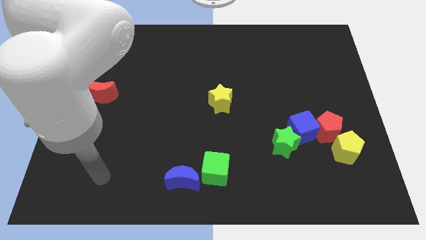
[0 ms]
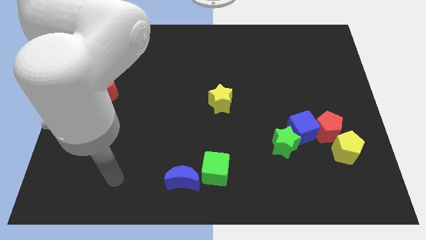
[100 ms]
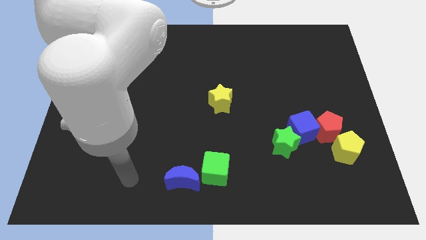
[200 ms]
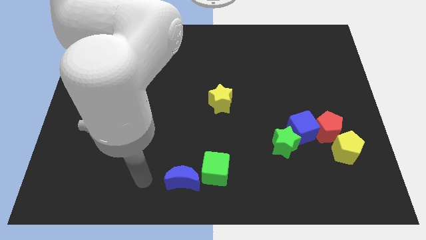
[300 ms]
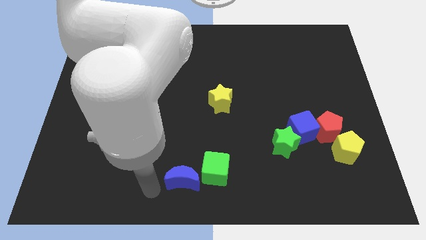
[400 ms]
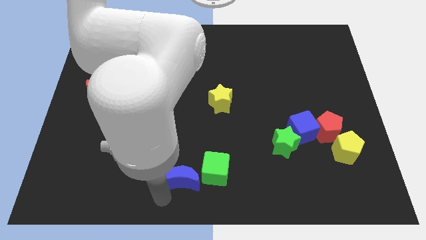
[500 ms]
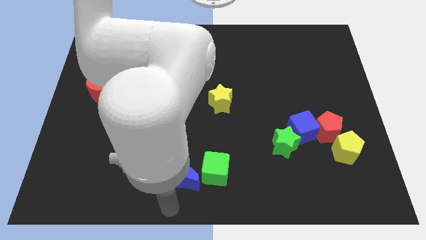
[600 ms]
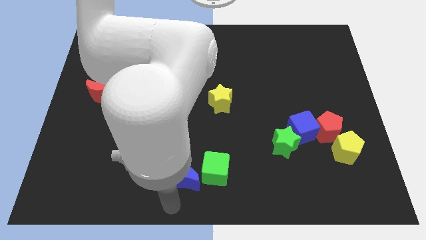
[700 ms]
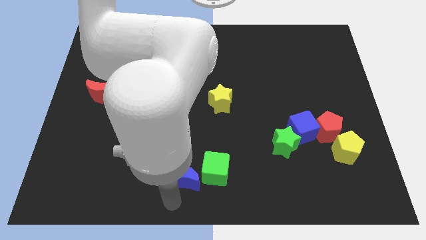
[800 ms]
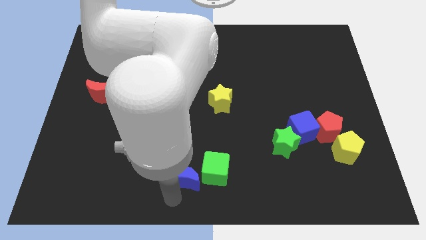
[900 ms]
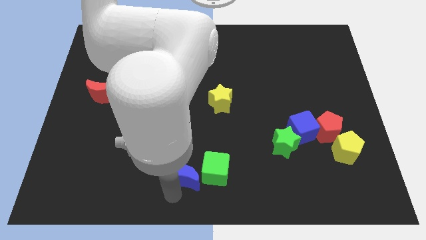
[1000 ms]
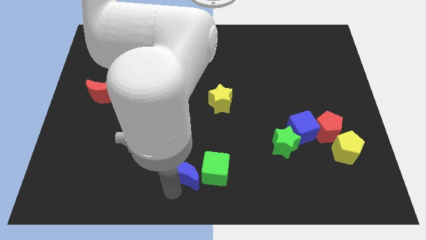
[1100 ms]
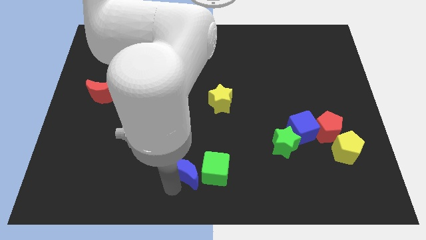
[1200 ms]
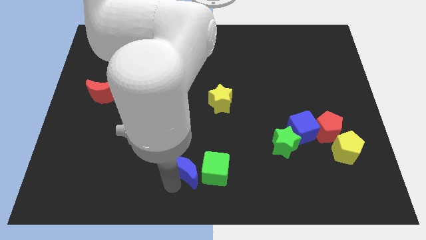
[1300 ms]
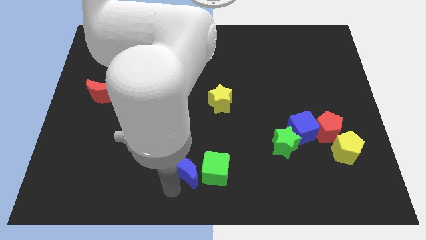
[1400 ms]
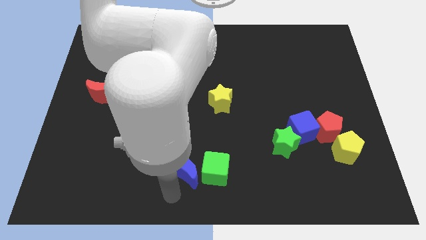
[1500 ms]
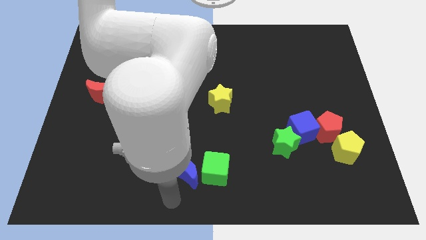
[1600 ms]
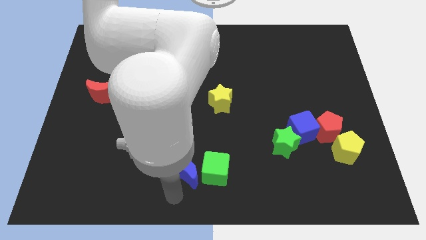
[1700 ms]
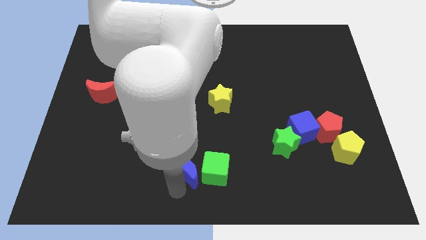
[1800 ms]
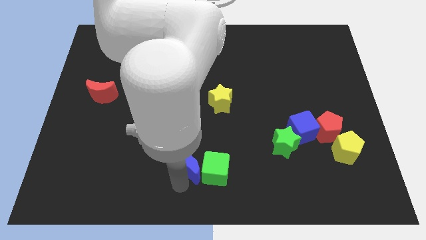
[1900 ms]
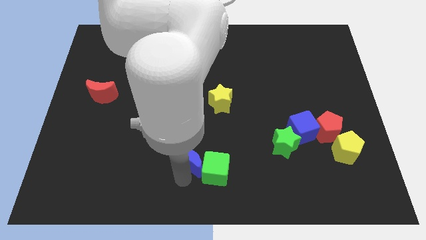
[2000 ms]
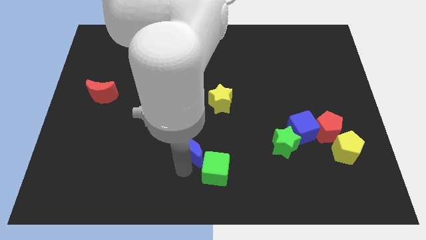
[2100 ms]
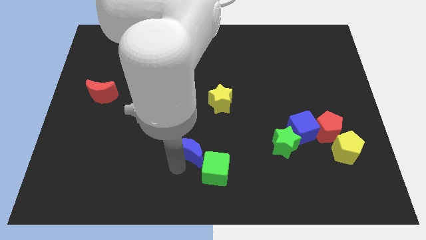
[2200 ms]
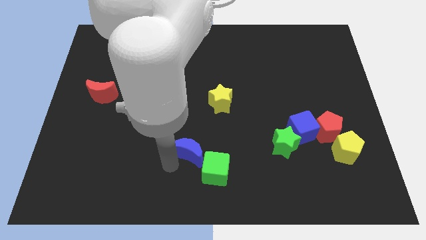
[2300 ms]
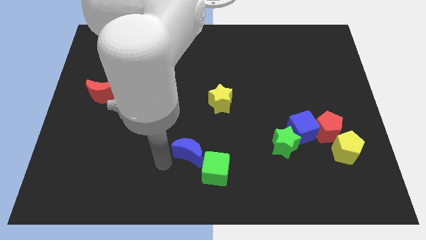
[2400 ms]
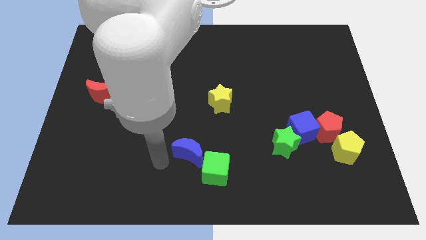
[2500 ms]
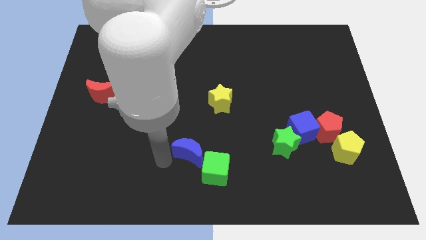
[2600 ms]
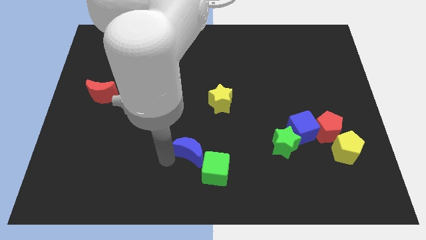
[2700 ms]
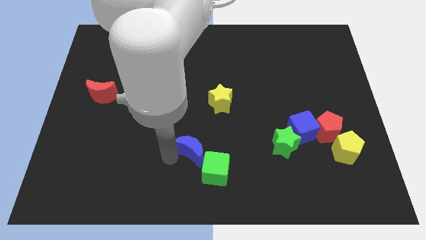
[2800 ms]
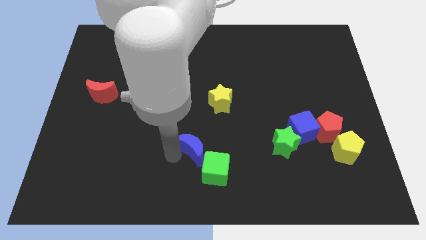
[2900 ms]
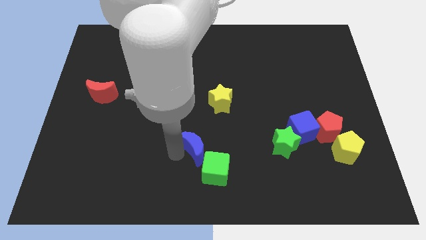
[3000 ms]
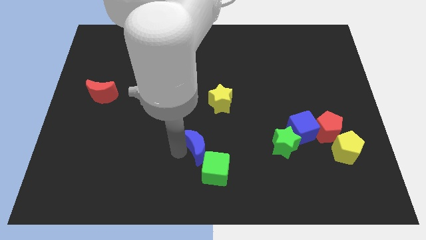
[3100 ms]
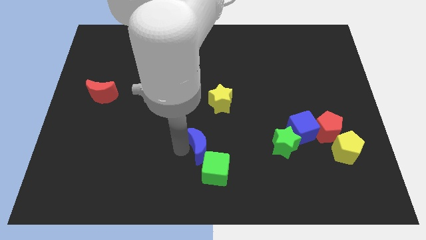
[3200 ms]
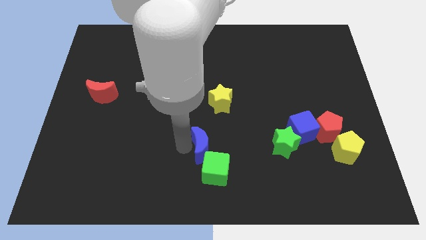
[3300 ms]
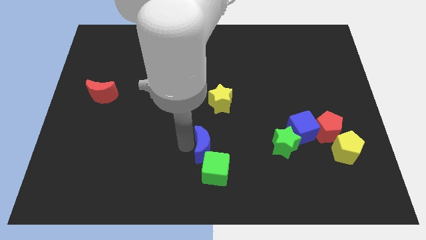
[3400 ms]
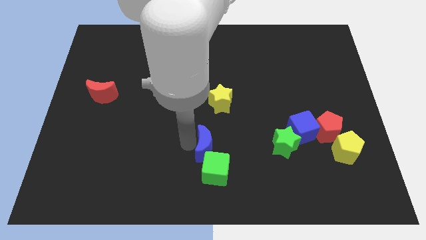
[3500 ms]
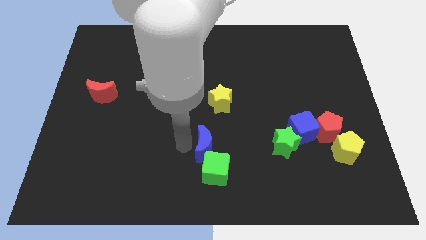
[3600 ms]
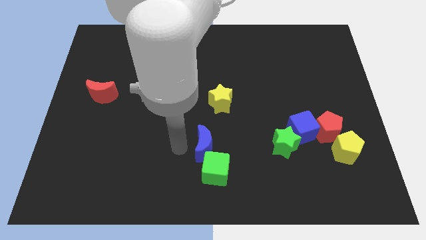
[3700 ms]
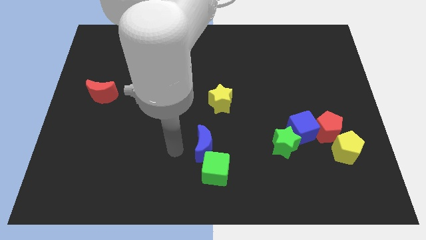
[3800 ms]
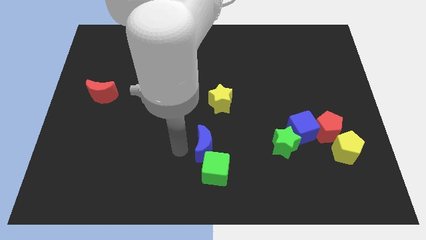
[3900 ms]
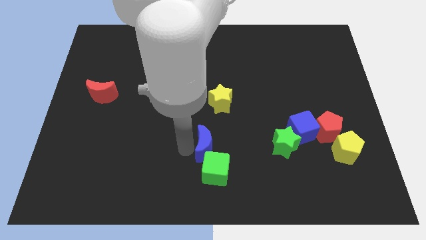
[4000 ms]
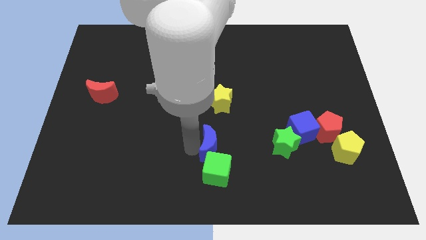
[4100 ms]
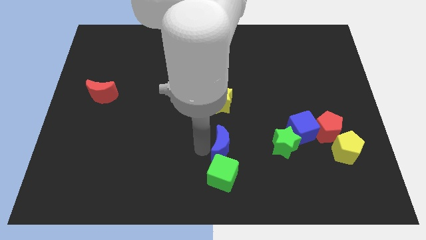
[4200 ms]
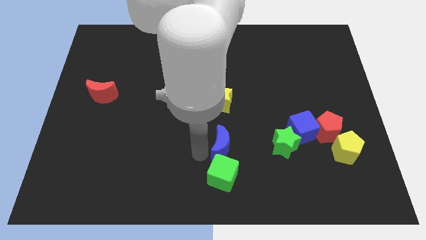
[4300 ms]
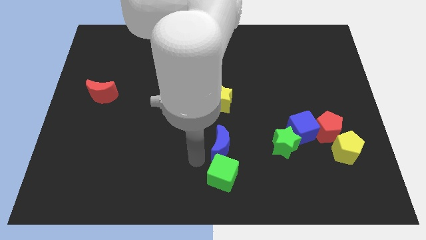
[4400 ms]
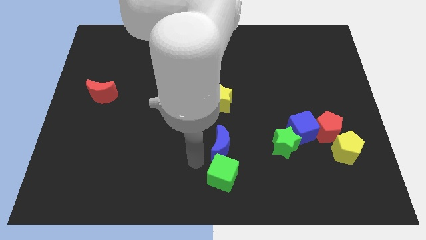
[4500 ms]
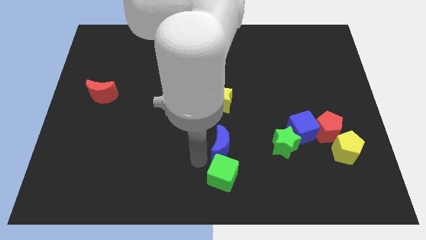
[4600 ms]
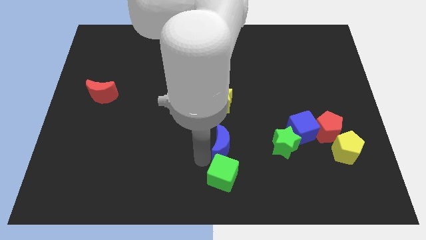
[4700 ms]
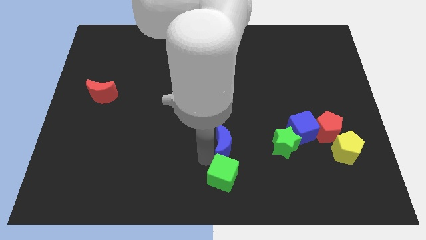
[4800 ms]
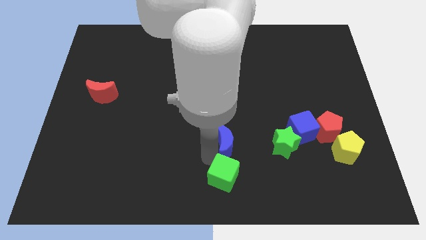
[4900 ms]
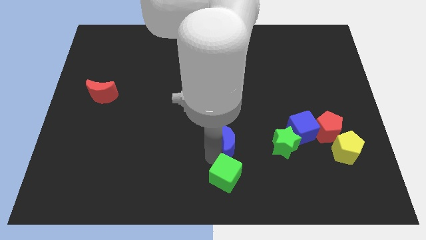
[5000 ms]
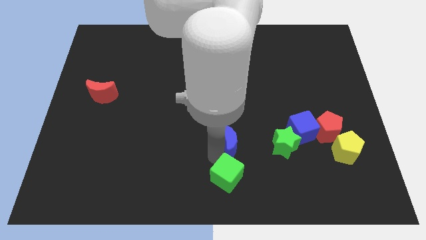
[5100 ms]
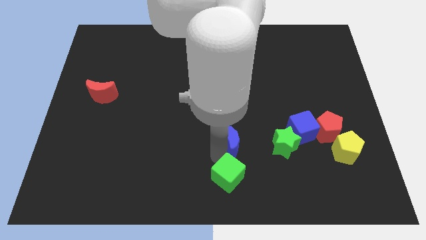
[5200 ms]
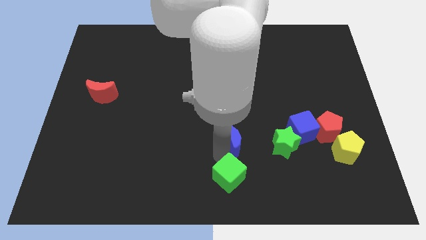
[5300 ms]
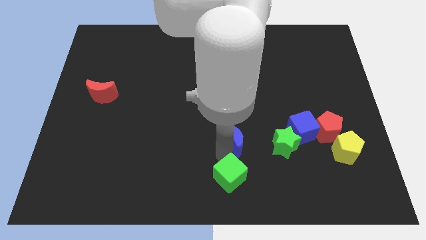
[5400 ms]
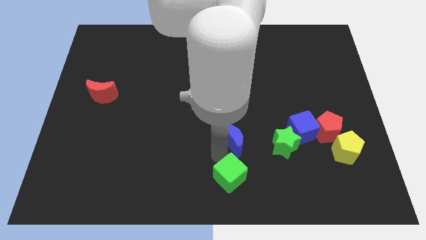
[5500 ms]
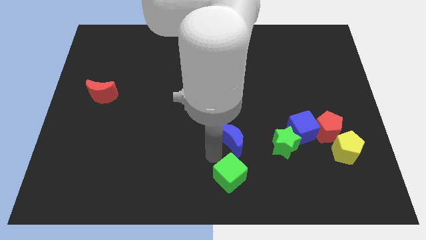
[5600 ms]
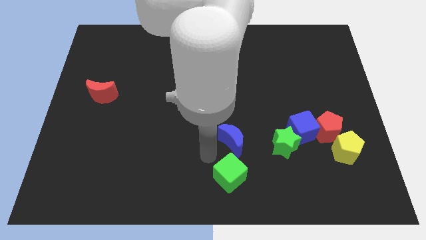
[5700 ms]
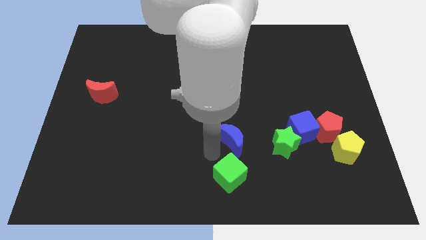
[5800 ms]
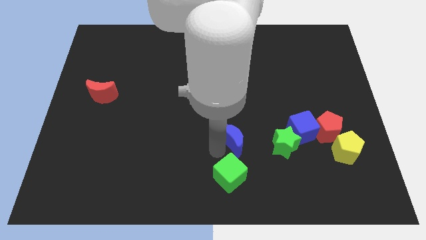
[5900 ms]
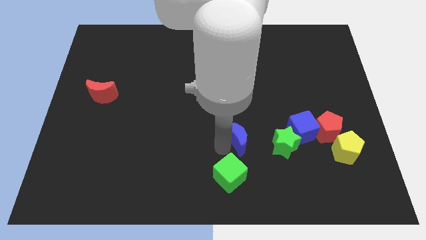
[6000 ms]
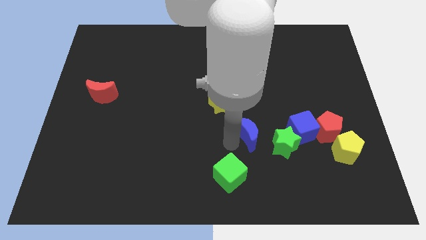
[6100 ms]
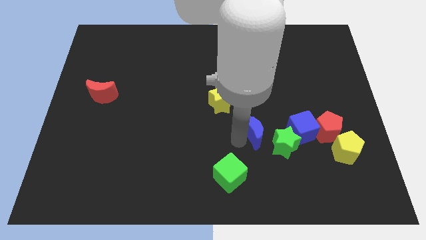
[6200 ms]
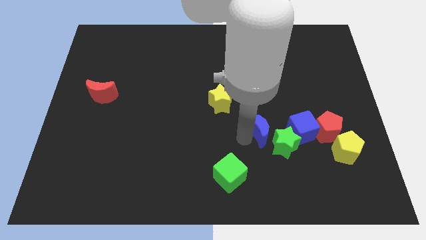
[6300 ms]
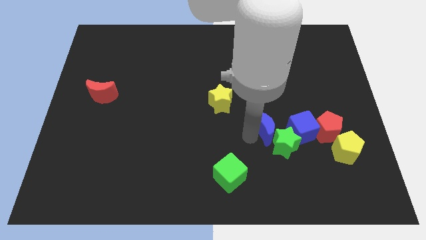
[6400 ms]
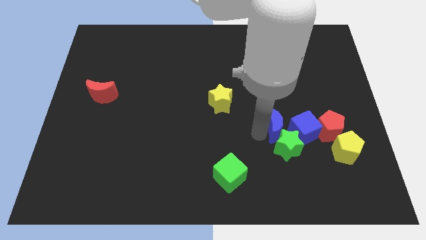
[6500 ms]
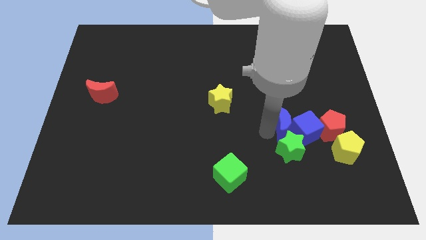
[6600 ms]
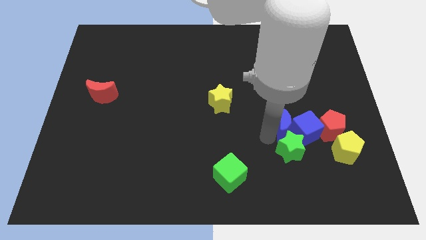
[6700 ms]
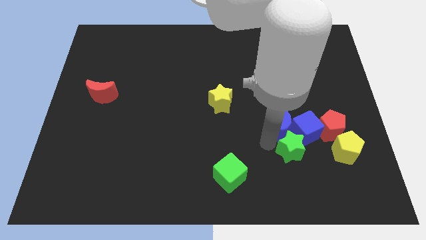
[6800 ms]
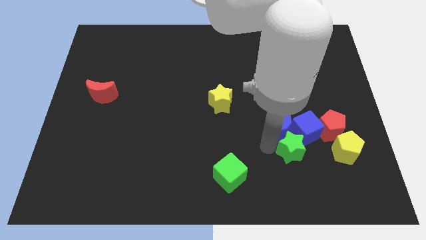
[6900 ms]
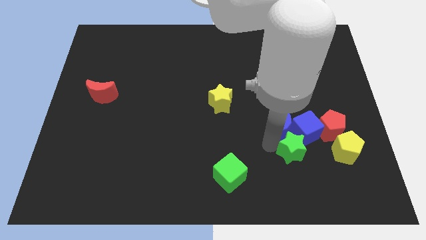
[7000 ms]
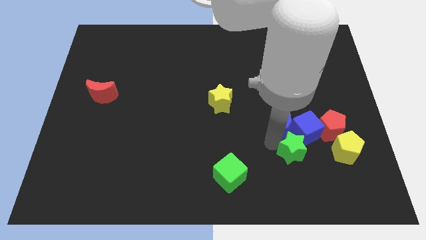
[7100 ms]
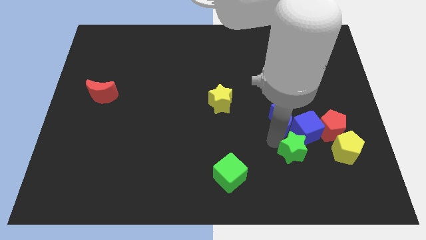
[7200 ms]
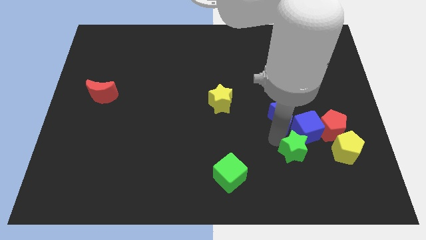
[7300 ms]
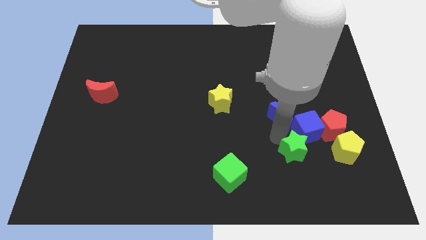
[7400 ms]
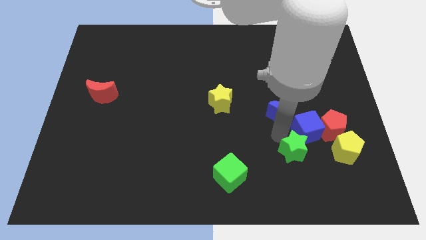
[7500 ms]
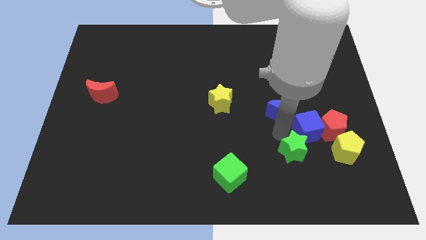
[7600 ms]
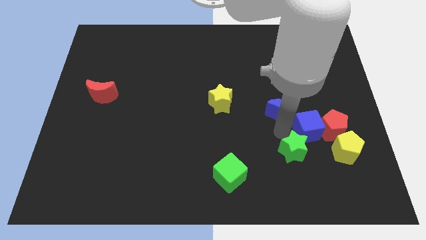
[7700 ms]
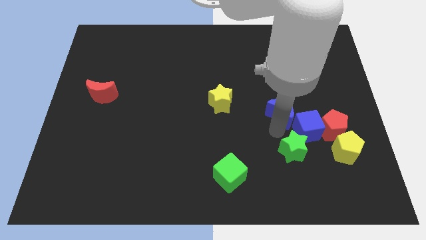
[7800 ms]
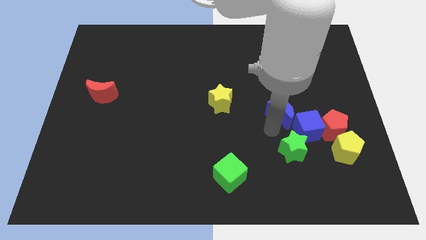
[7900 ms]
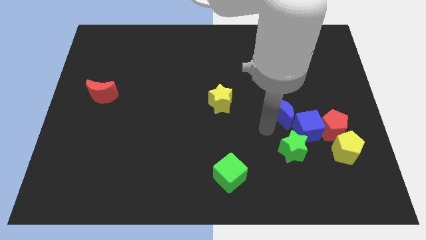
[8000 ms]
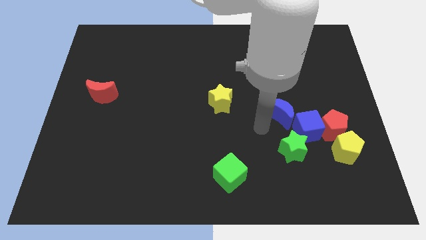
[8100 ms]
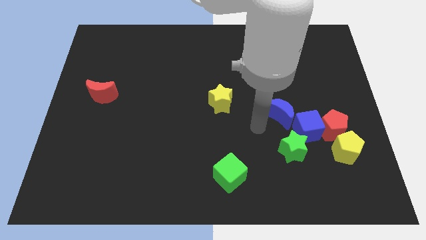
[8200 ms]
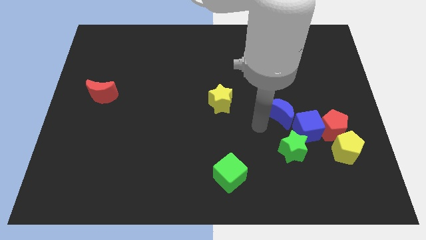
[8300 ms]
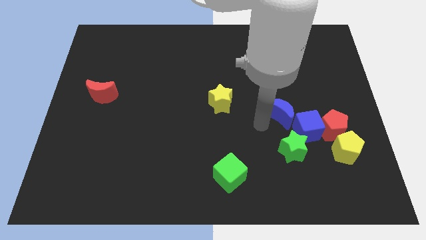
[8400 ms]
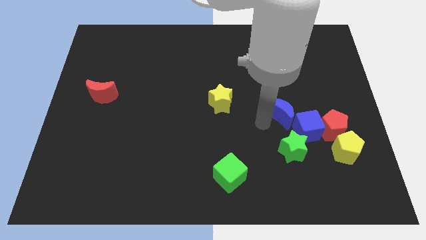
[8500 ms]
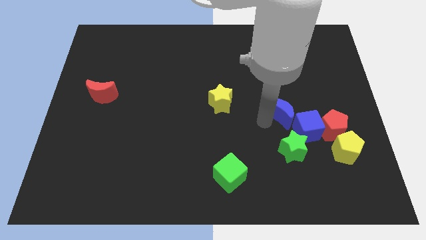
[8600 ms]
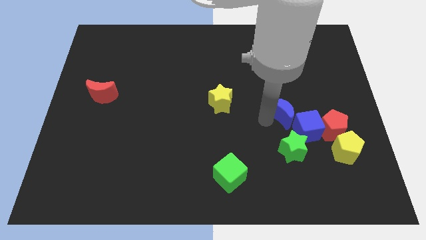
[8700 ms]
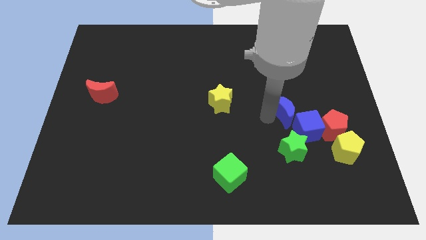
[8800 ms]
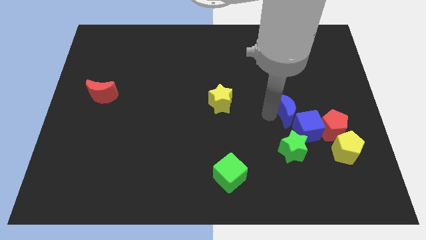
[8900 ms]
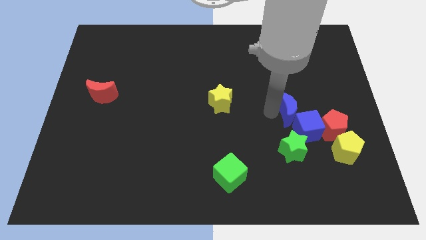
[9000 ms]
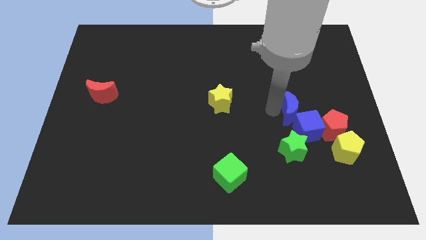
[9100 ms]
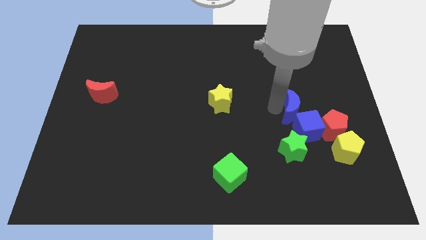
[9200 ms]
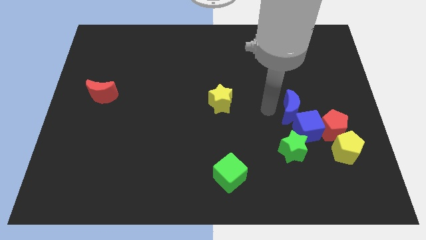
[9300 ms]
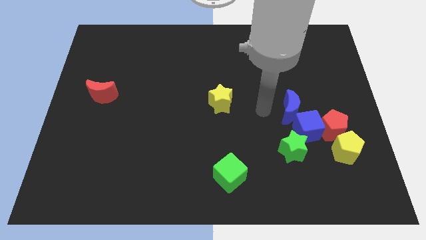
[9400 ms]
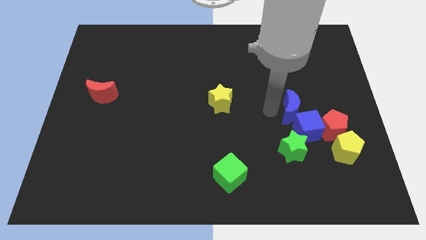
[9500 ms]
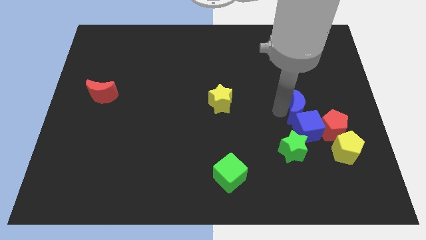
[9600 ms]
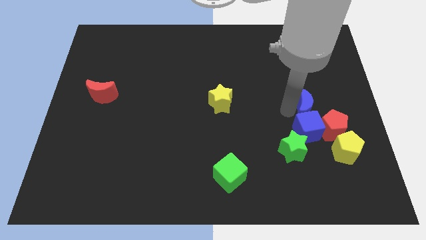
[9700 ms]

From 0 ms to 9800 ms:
push the blue moon diagonally up and to the right of the blue cube
